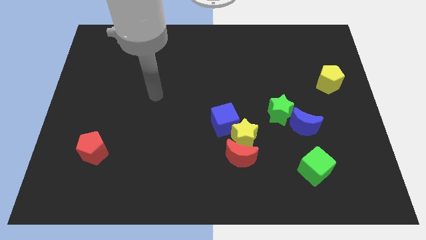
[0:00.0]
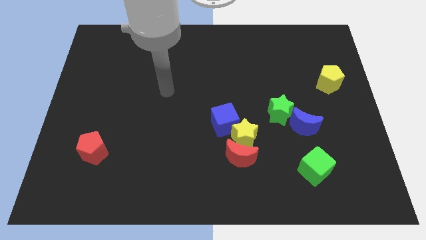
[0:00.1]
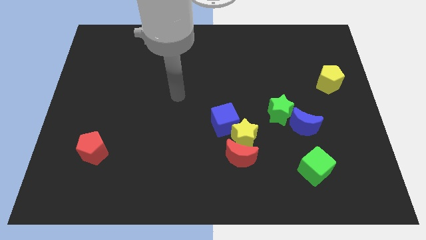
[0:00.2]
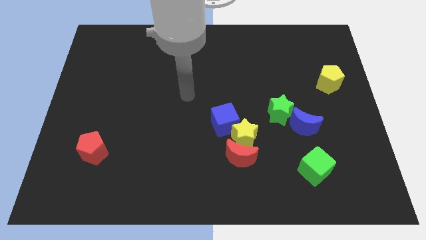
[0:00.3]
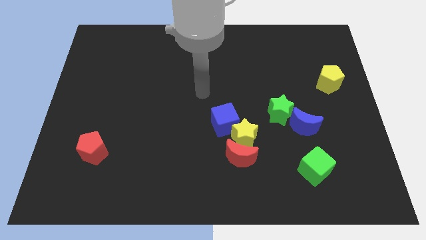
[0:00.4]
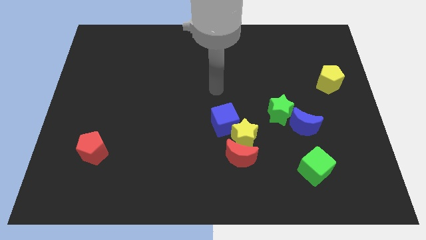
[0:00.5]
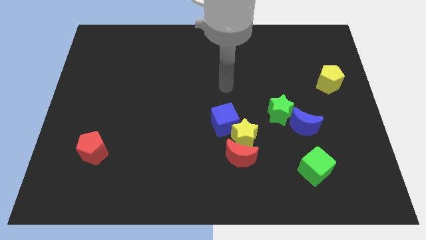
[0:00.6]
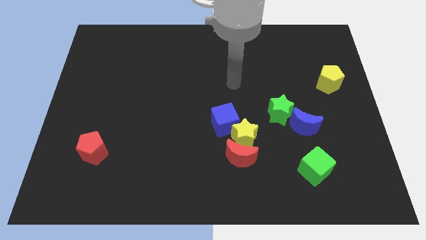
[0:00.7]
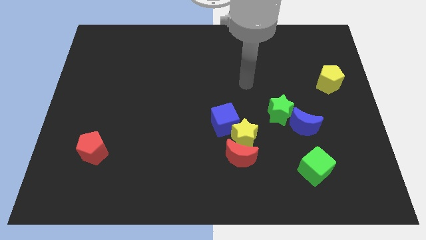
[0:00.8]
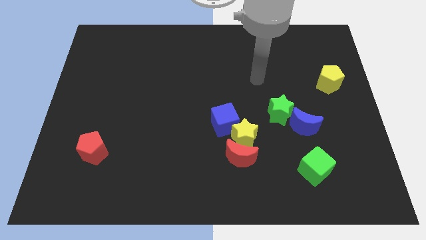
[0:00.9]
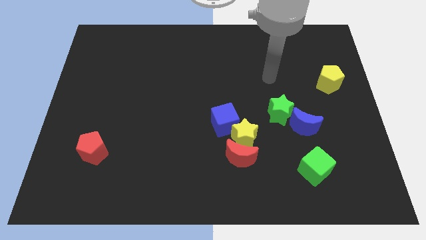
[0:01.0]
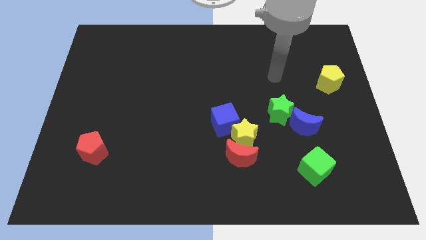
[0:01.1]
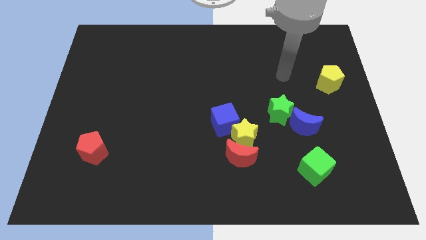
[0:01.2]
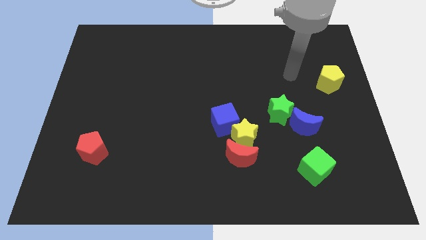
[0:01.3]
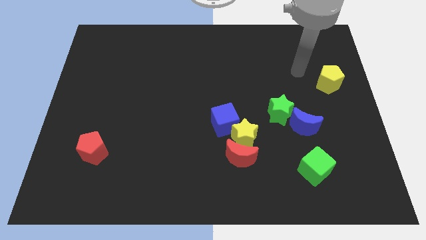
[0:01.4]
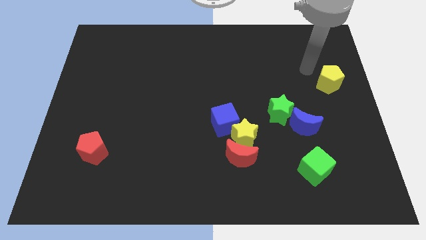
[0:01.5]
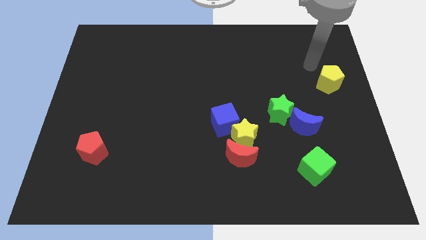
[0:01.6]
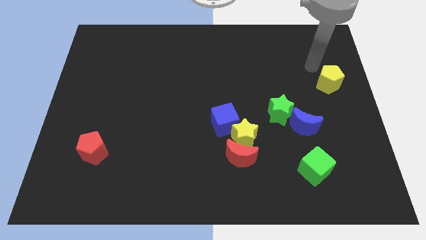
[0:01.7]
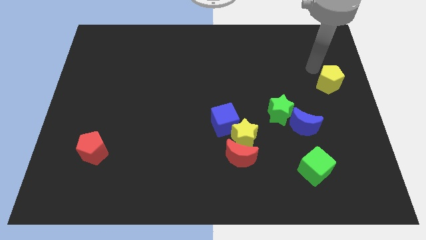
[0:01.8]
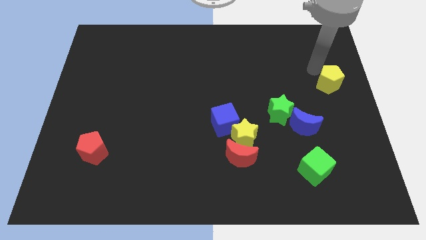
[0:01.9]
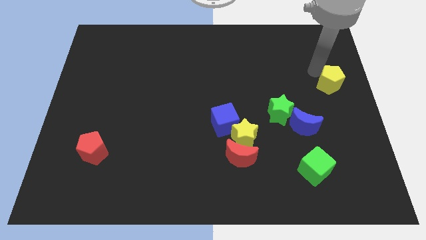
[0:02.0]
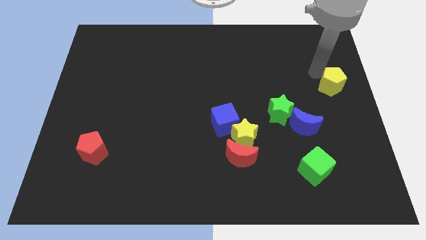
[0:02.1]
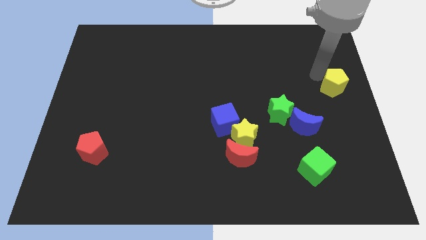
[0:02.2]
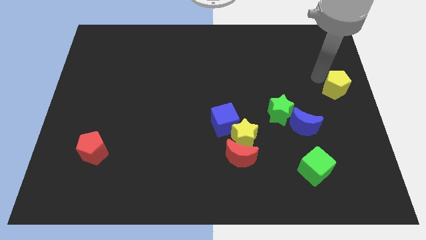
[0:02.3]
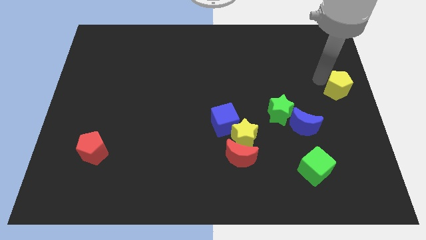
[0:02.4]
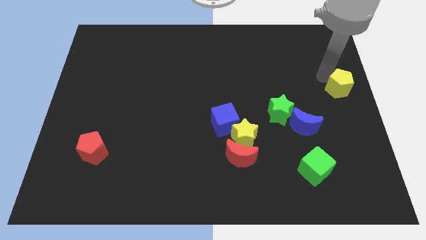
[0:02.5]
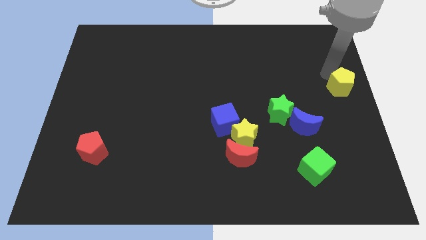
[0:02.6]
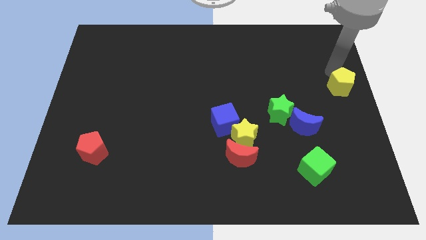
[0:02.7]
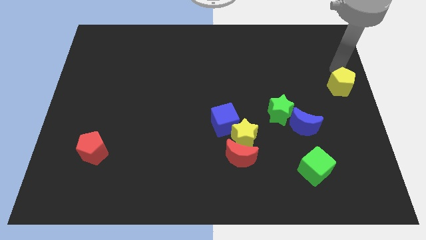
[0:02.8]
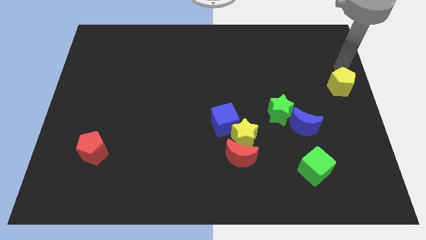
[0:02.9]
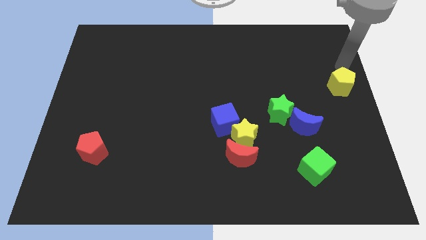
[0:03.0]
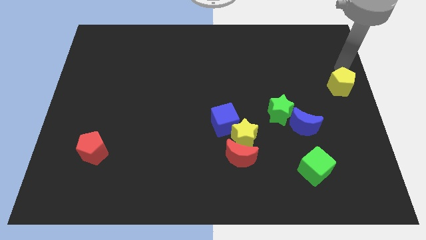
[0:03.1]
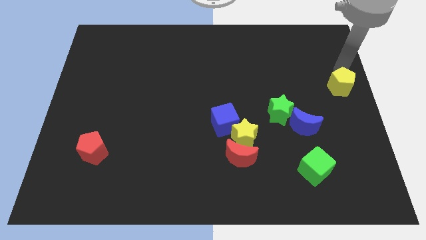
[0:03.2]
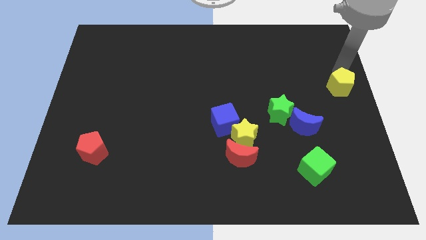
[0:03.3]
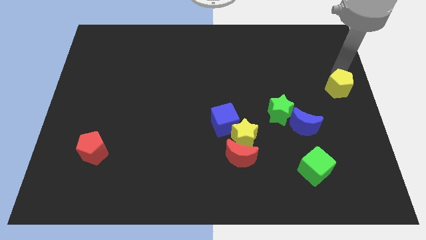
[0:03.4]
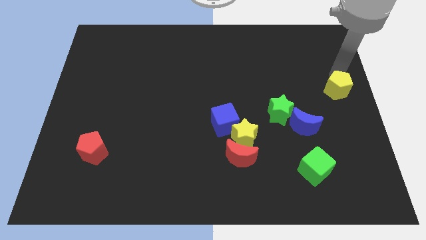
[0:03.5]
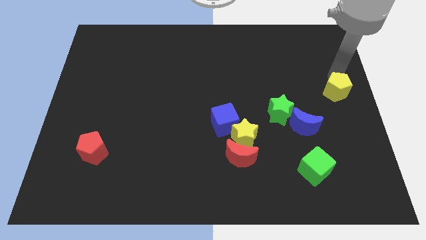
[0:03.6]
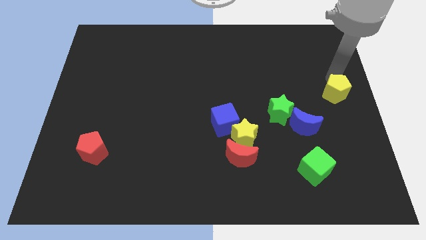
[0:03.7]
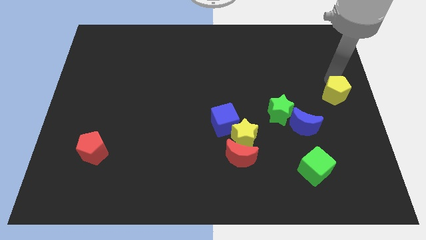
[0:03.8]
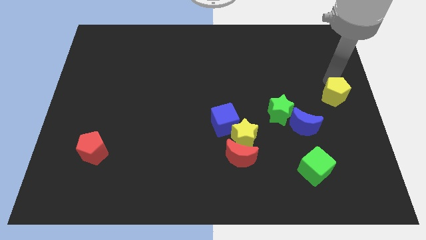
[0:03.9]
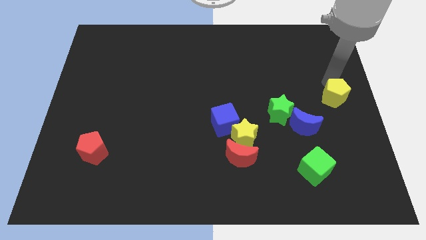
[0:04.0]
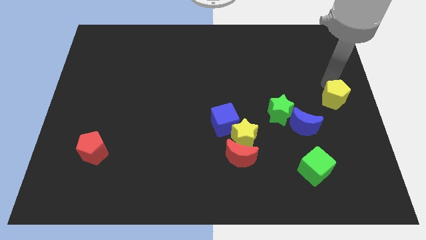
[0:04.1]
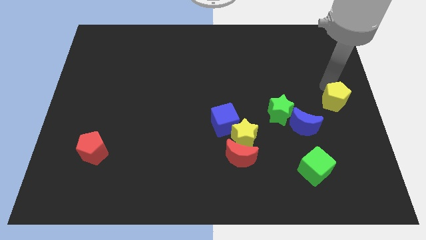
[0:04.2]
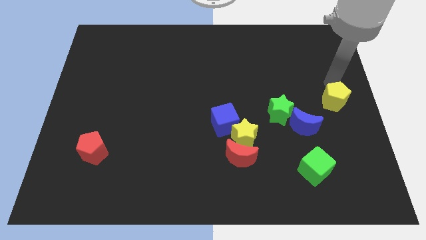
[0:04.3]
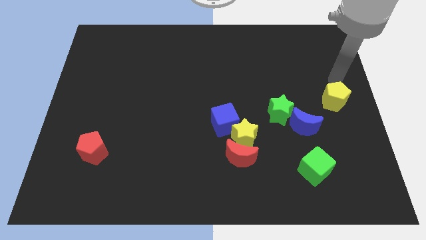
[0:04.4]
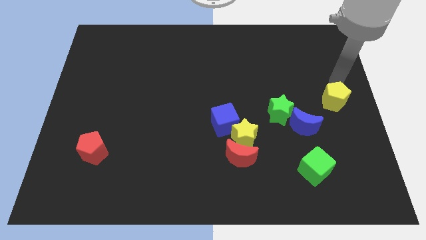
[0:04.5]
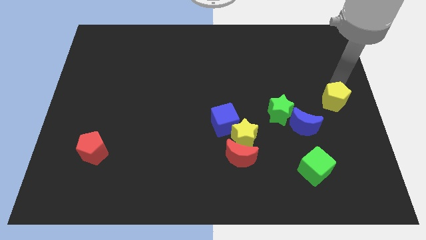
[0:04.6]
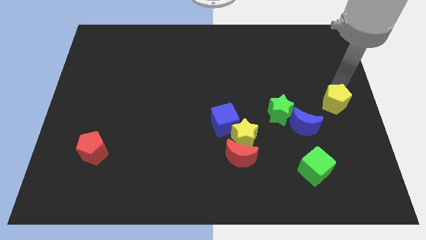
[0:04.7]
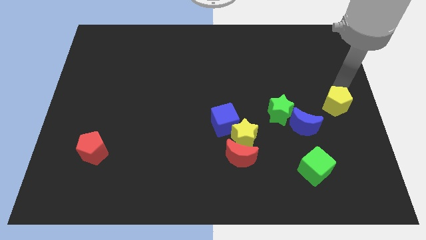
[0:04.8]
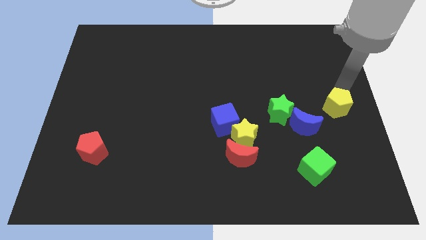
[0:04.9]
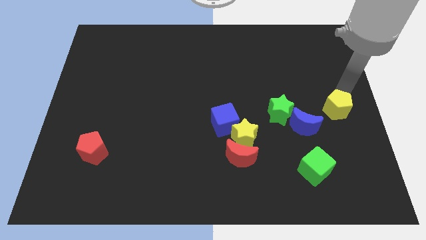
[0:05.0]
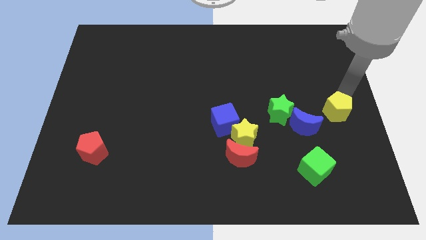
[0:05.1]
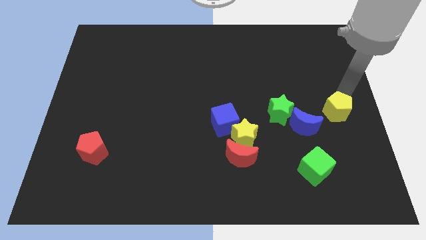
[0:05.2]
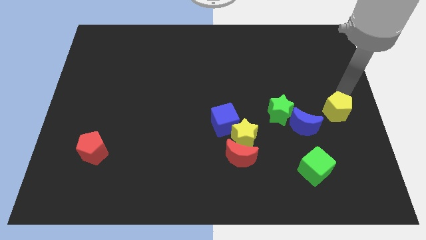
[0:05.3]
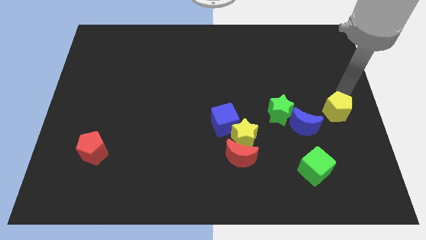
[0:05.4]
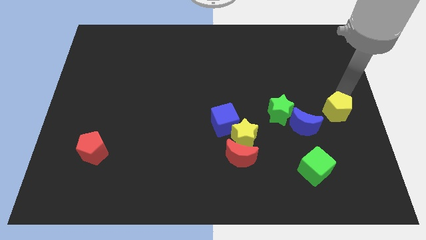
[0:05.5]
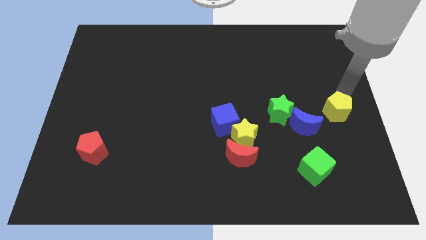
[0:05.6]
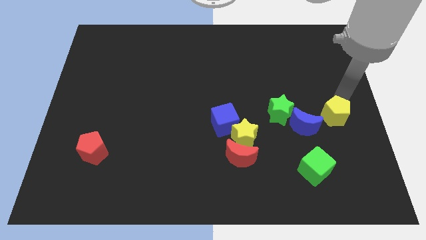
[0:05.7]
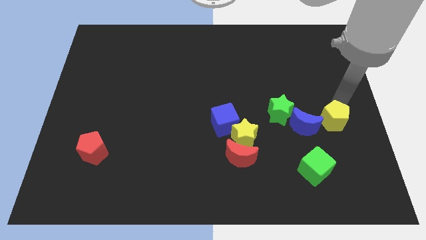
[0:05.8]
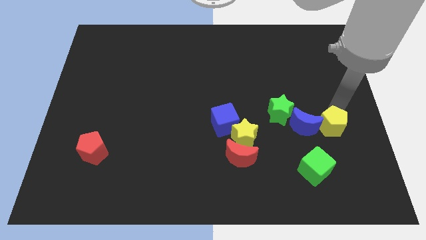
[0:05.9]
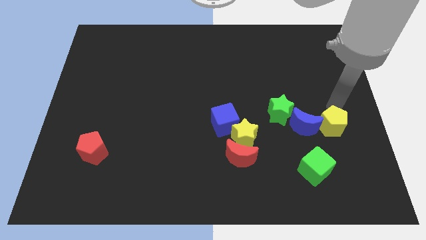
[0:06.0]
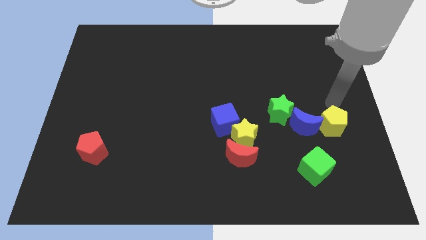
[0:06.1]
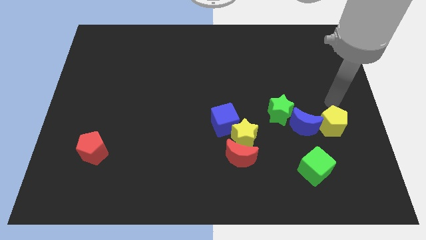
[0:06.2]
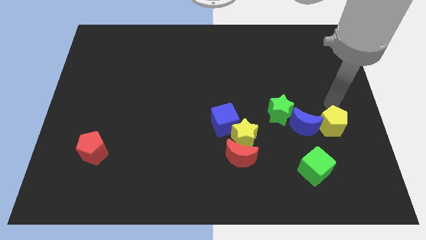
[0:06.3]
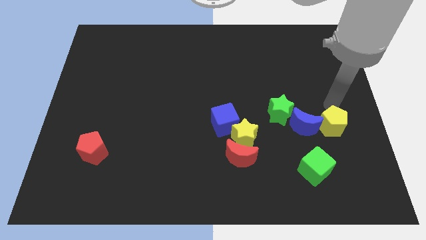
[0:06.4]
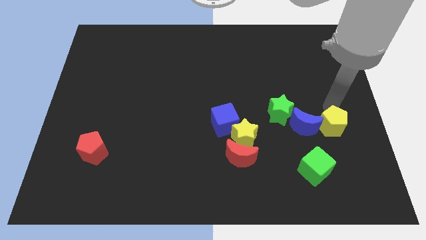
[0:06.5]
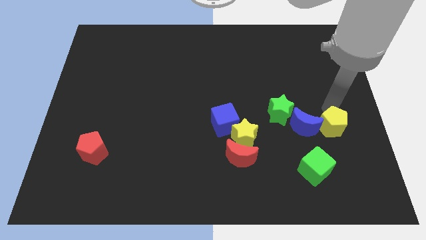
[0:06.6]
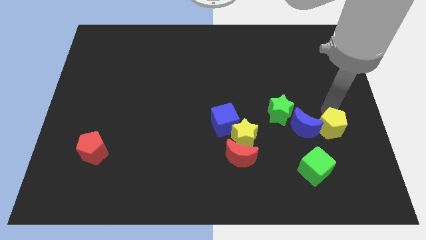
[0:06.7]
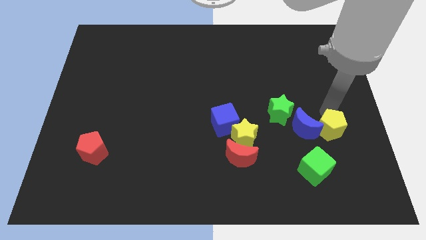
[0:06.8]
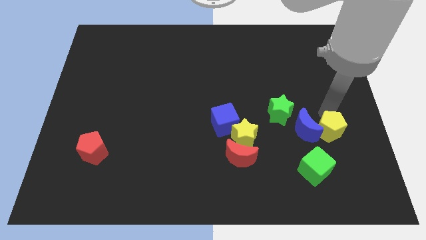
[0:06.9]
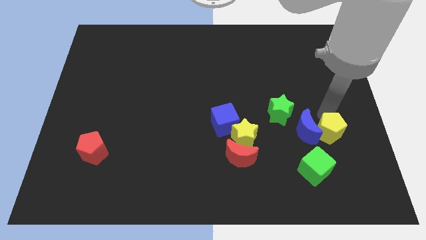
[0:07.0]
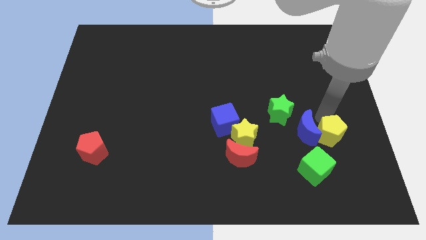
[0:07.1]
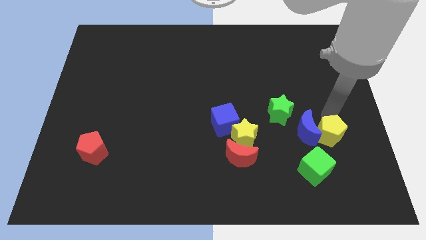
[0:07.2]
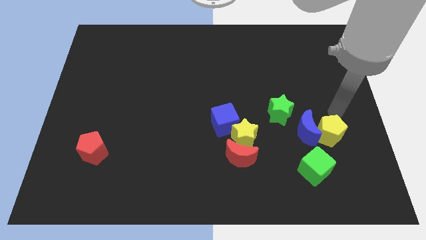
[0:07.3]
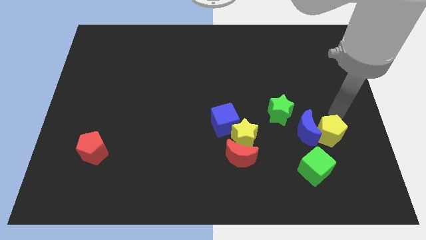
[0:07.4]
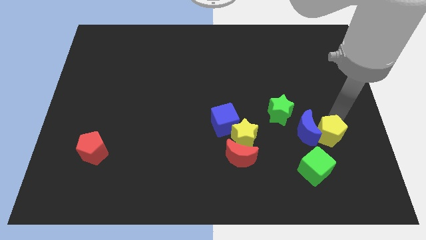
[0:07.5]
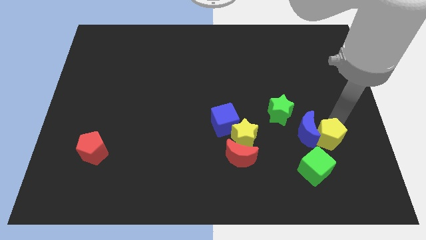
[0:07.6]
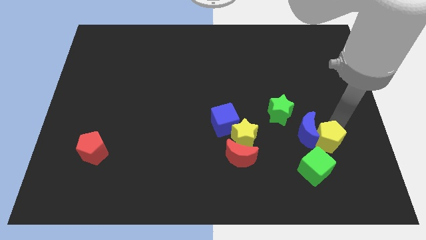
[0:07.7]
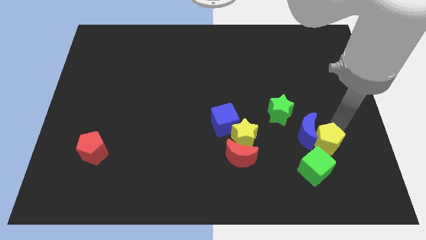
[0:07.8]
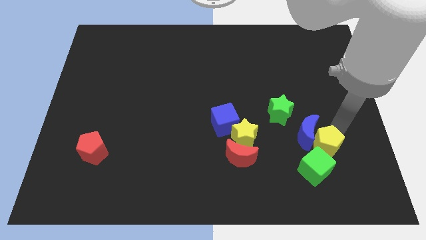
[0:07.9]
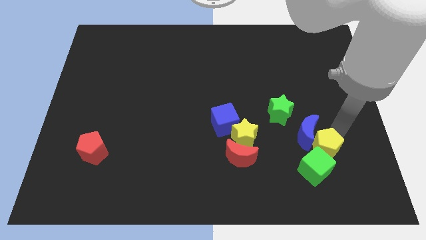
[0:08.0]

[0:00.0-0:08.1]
move the yellow pentagon towards the green cube
